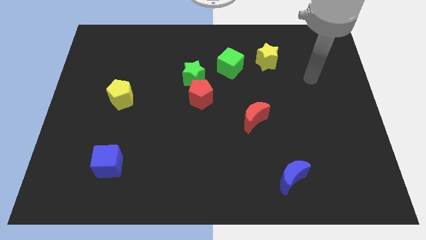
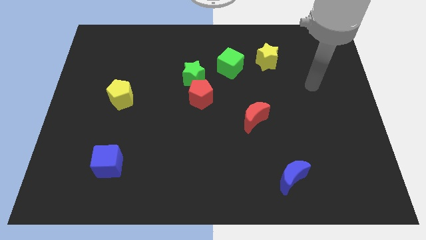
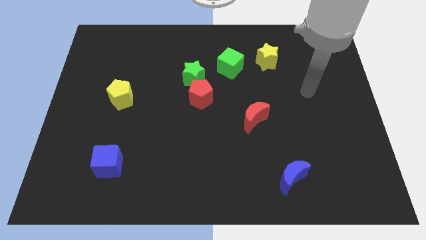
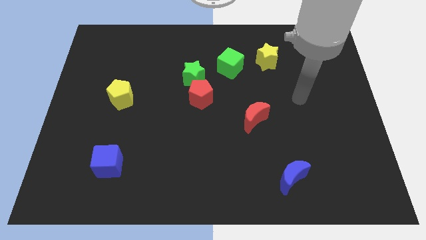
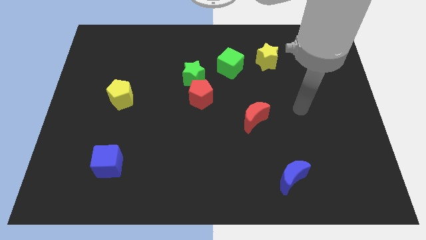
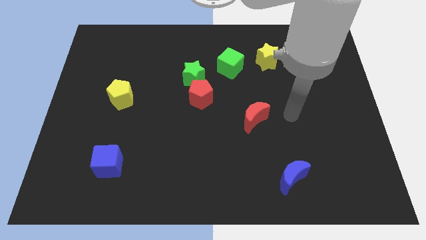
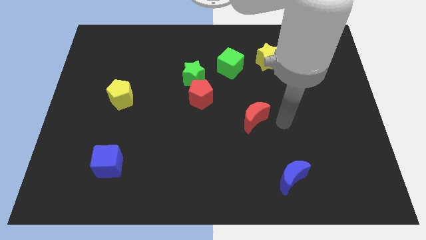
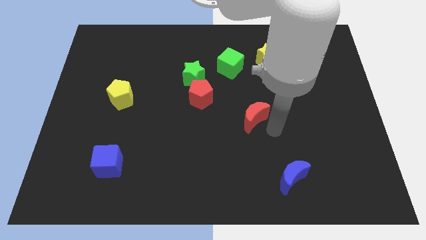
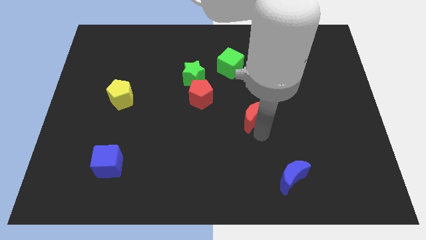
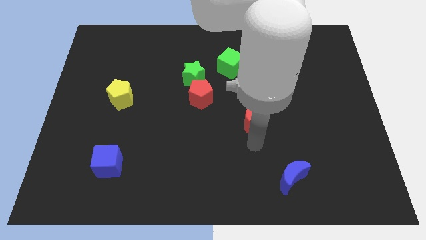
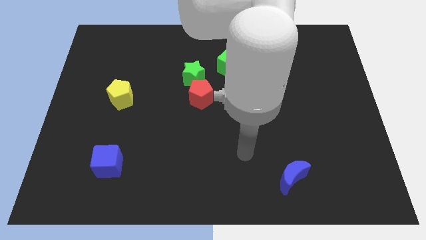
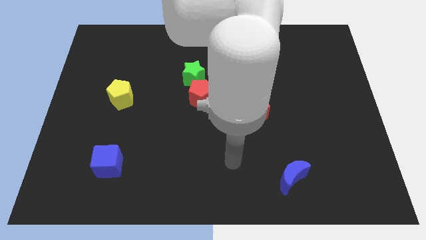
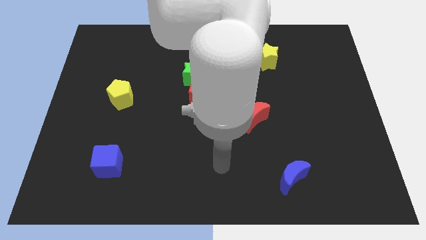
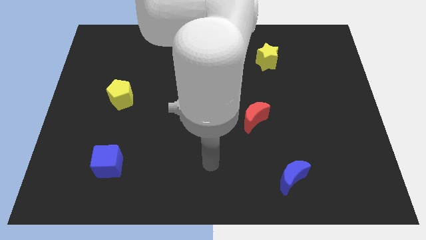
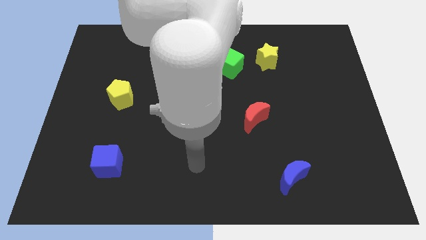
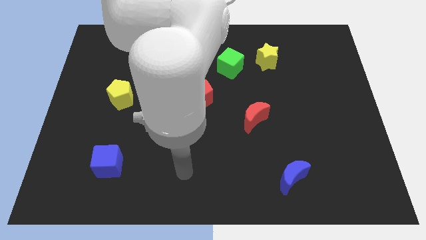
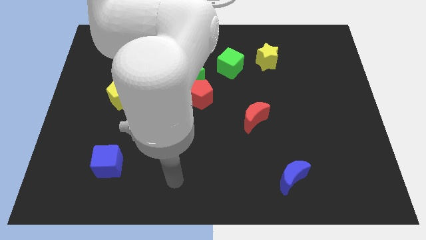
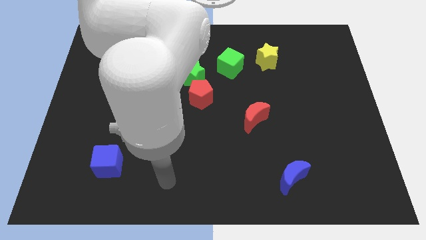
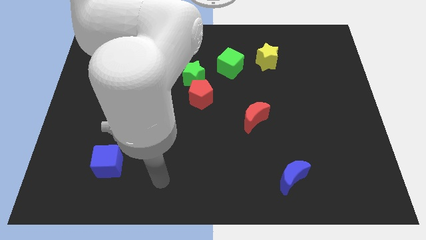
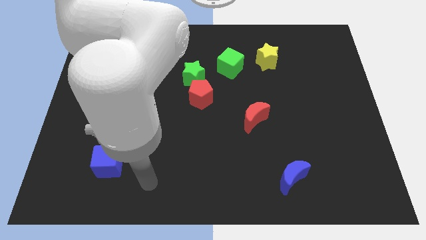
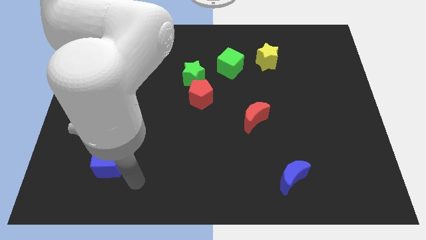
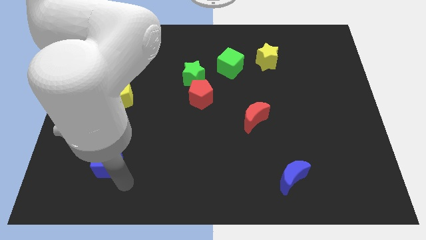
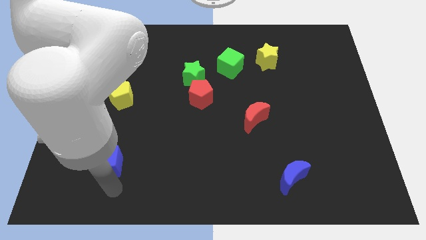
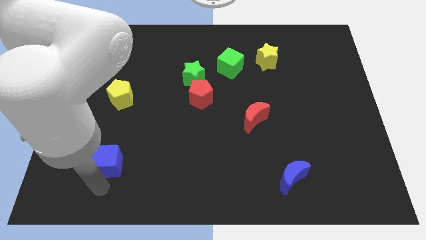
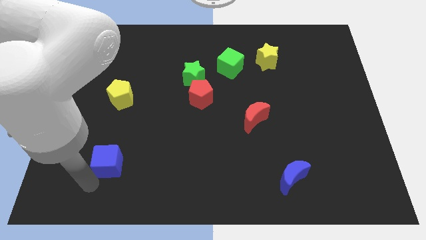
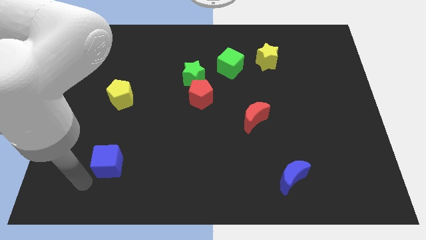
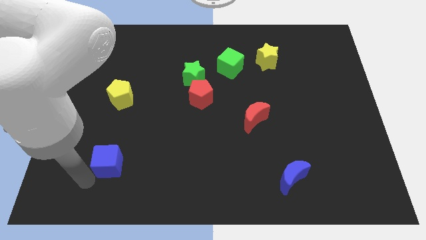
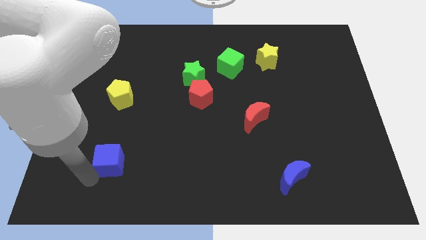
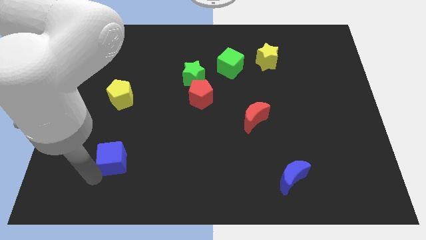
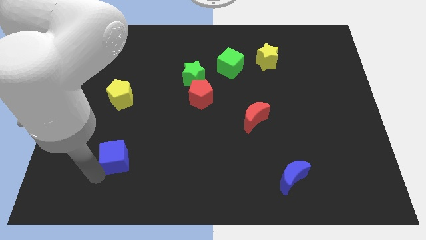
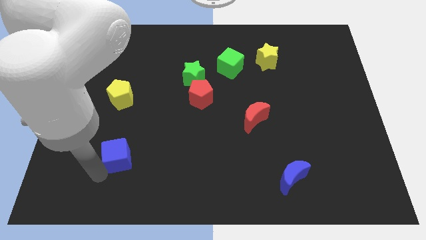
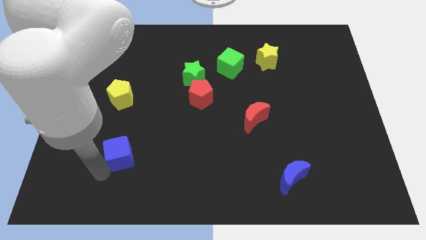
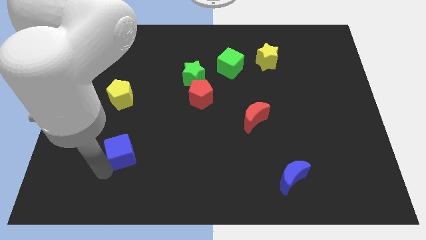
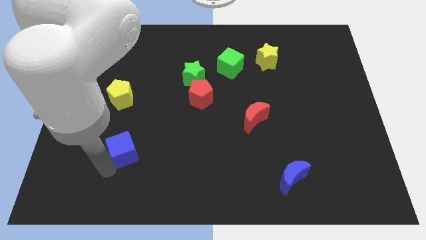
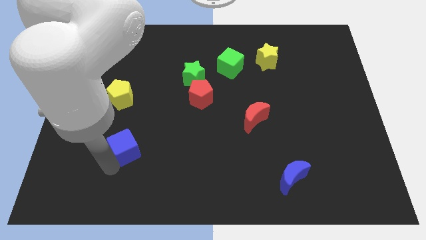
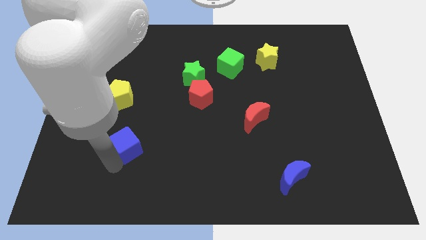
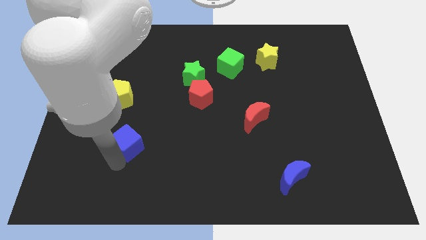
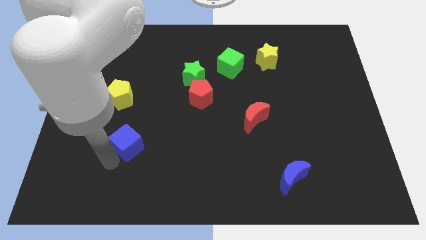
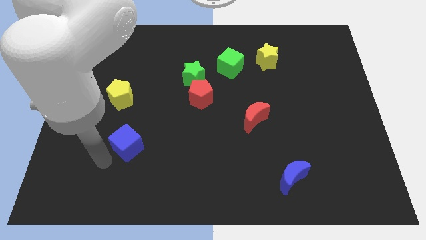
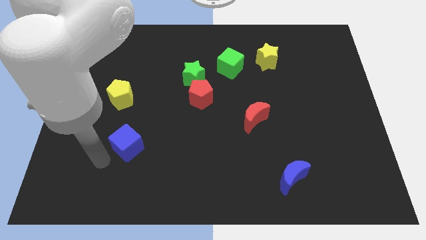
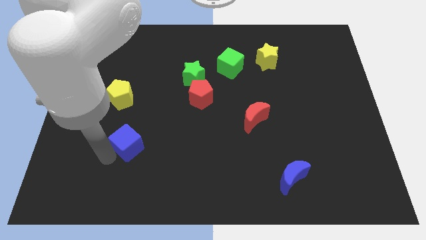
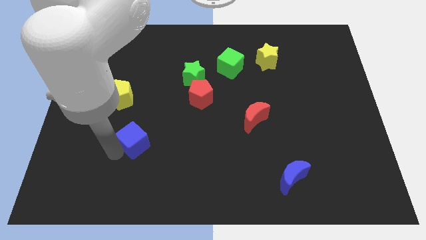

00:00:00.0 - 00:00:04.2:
move the blue cube a bit diagonally up and right

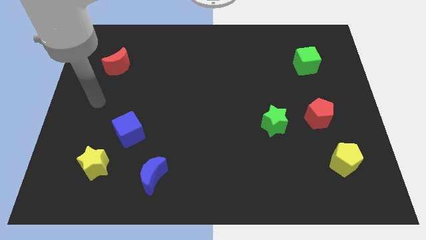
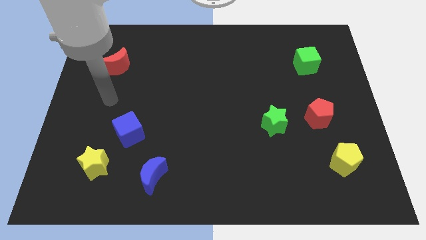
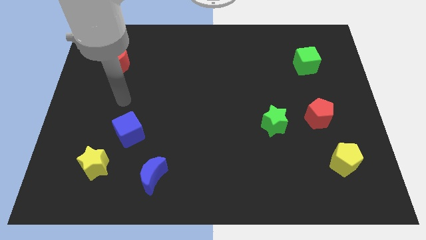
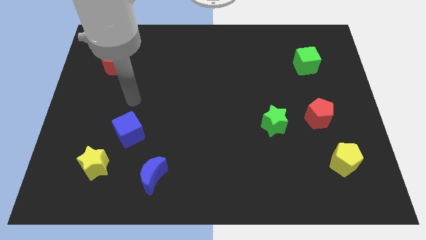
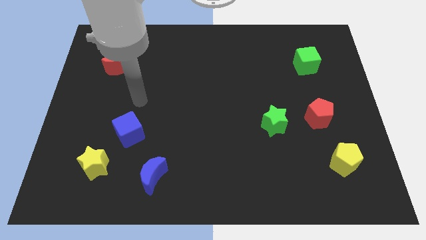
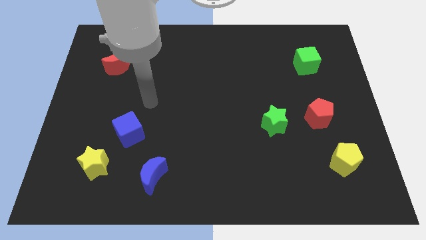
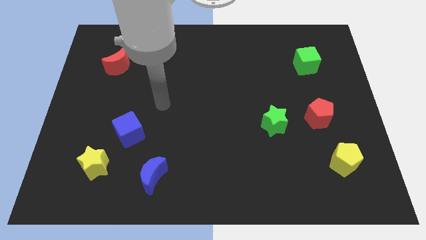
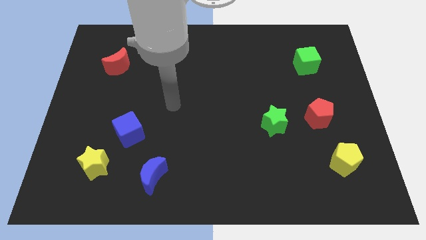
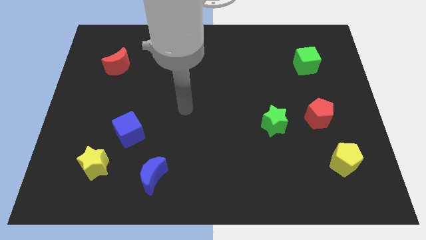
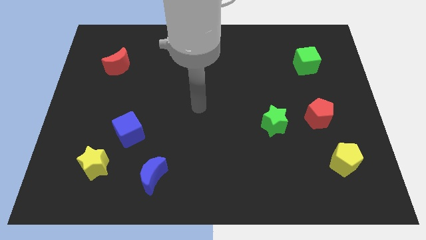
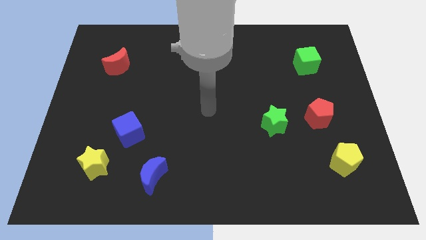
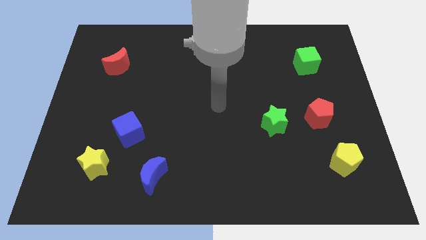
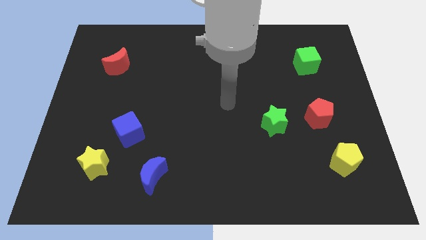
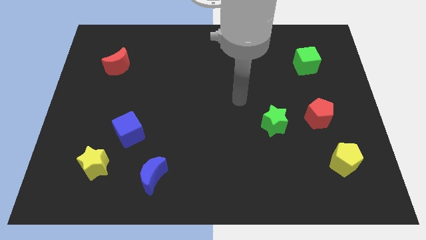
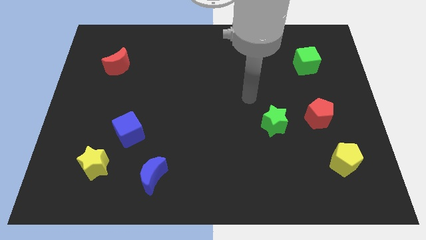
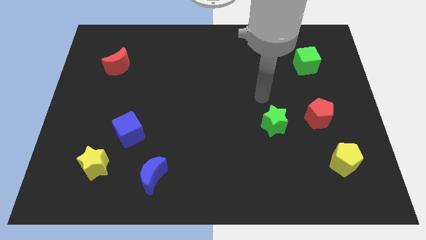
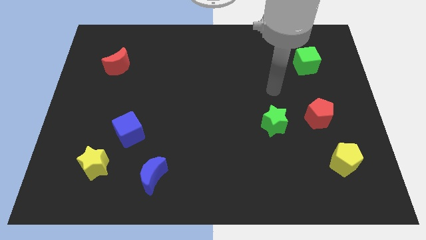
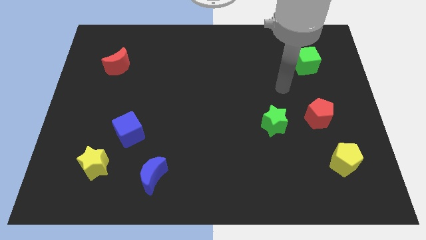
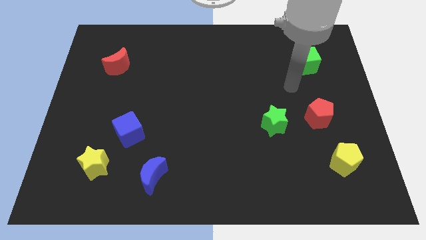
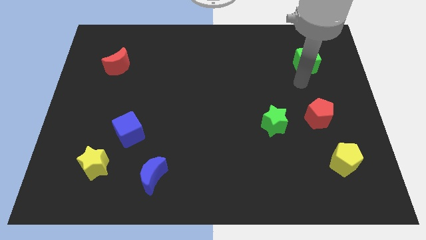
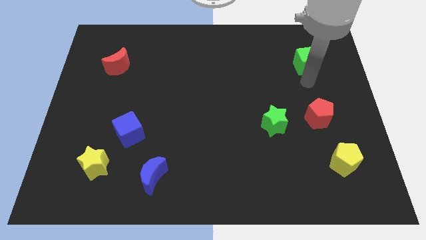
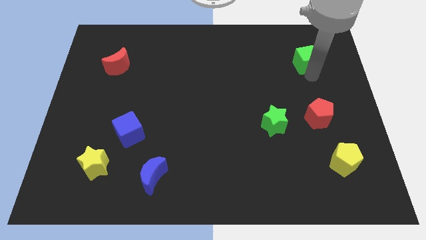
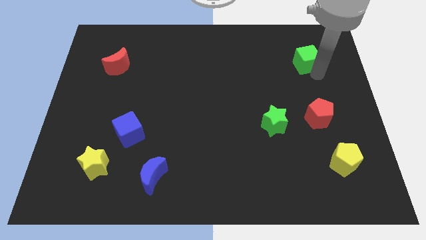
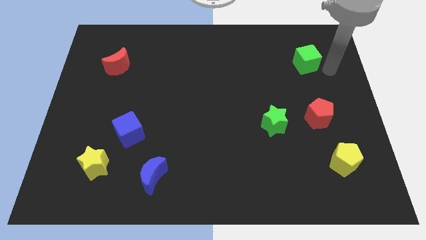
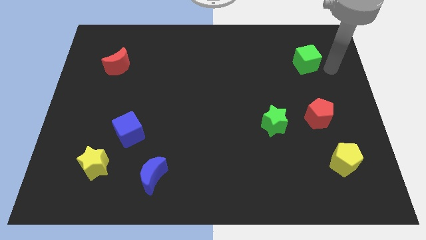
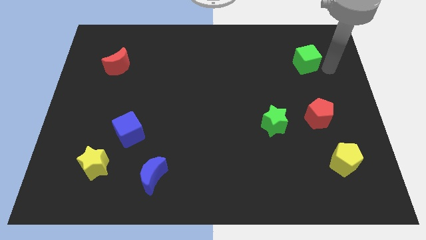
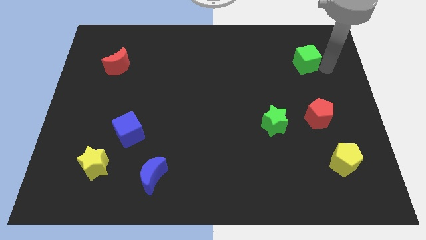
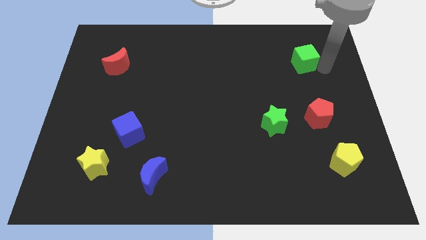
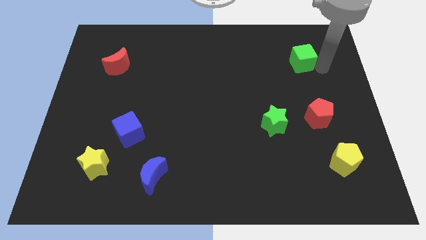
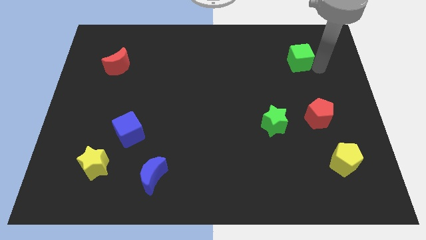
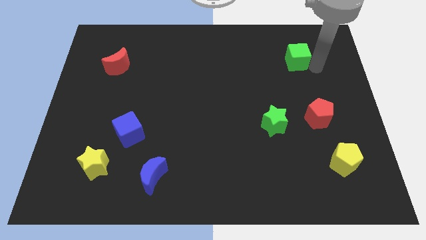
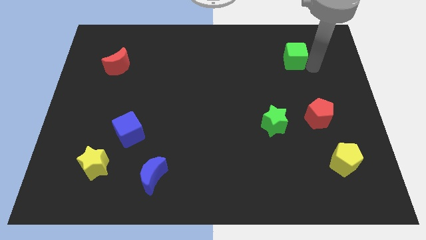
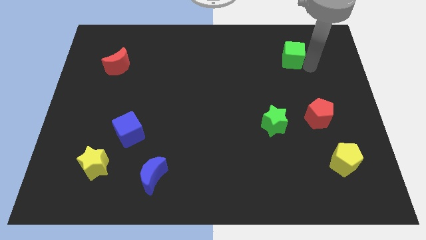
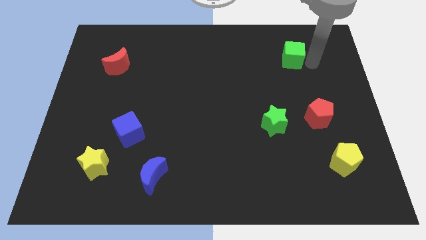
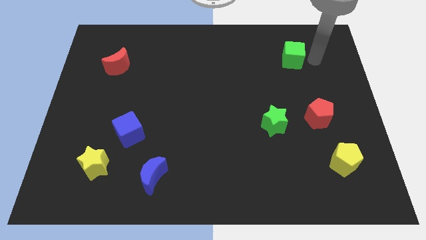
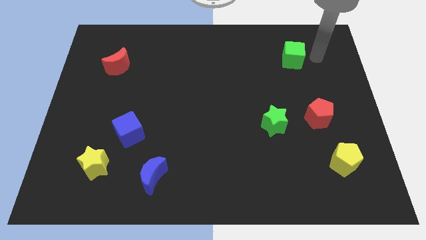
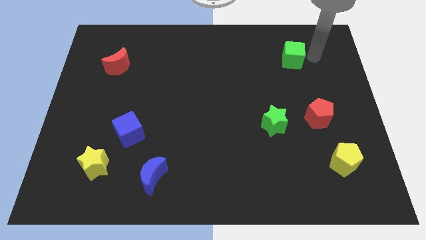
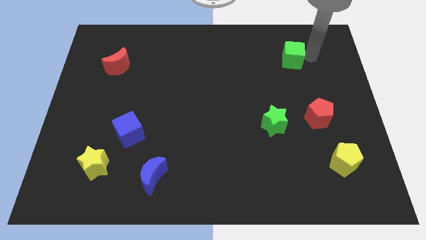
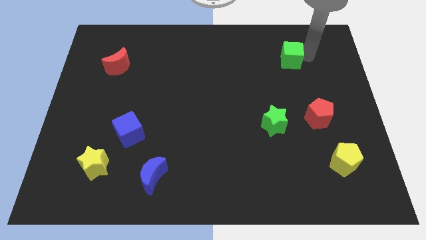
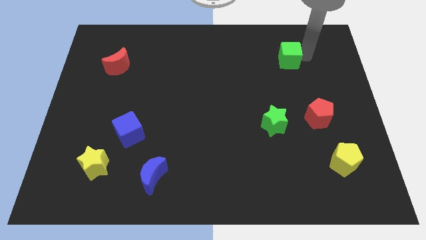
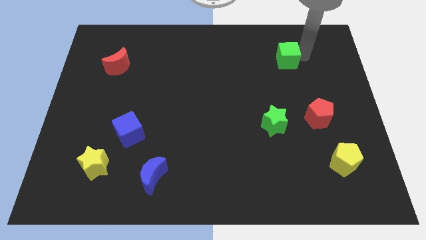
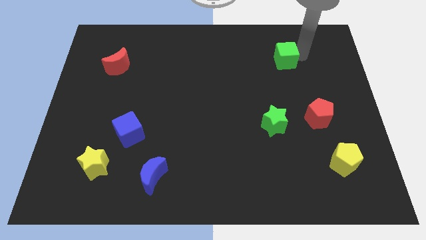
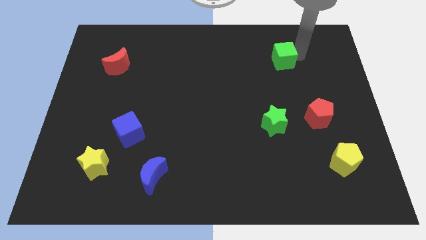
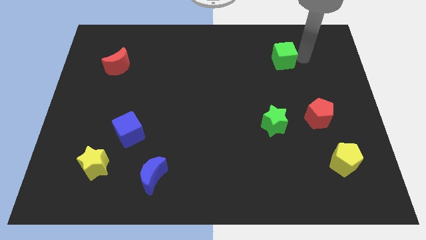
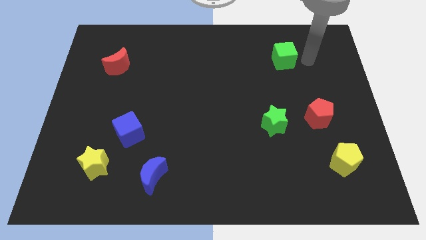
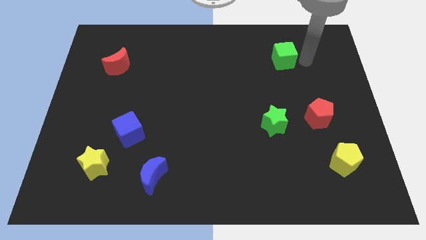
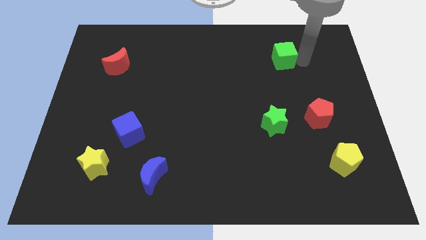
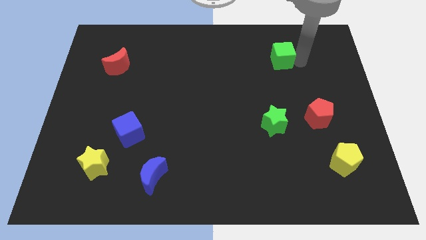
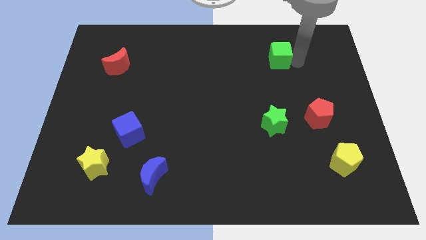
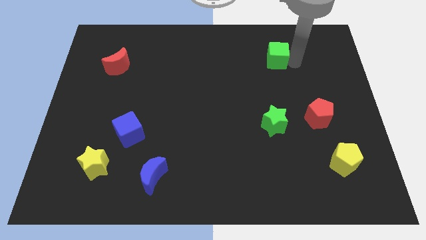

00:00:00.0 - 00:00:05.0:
push the green cube left somewhat
